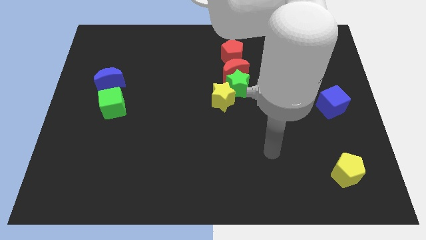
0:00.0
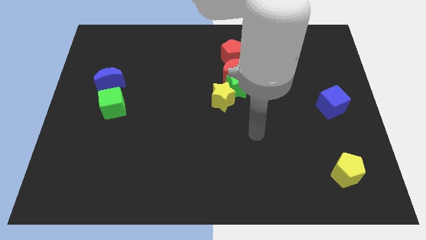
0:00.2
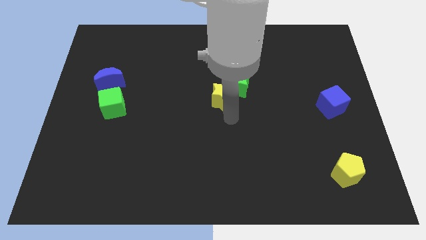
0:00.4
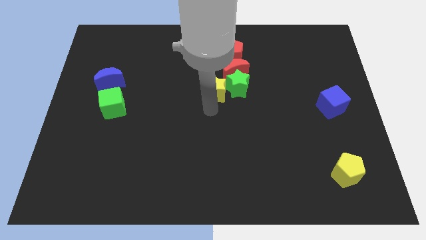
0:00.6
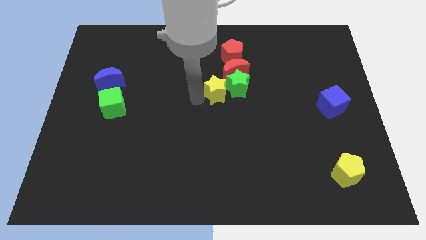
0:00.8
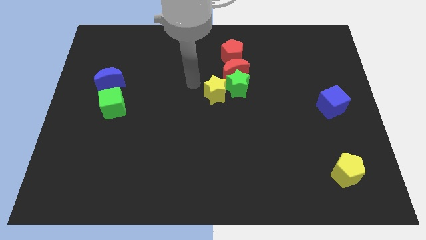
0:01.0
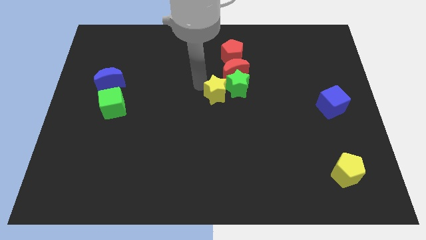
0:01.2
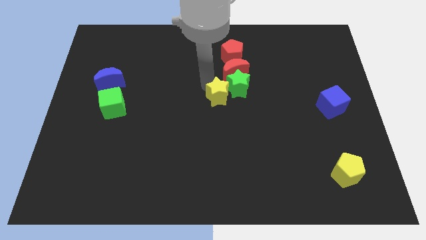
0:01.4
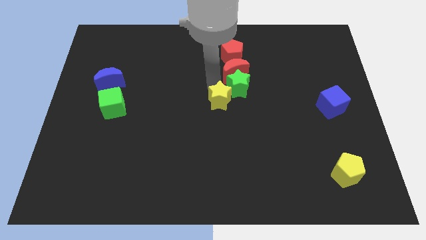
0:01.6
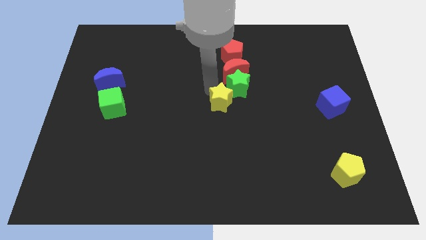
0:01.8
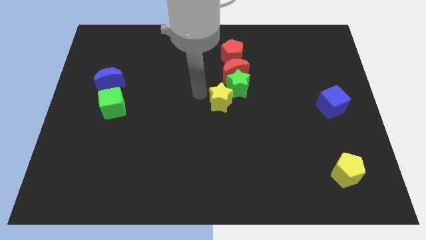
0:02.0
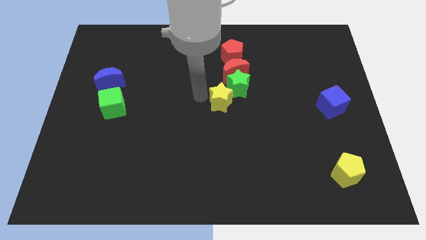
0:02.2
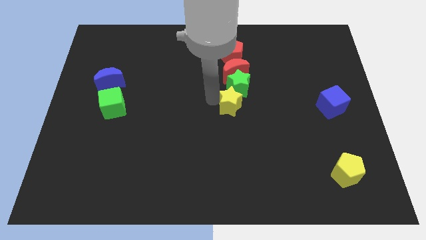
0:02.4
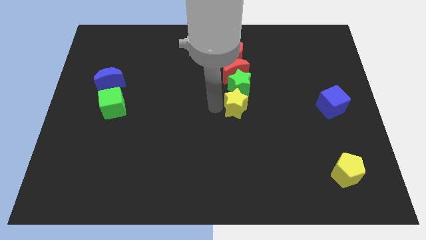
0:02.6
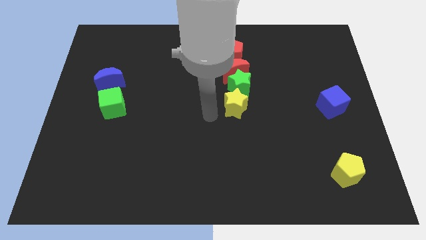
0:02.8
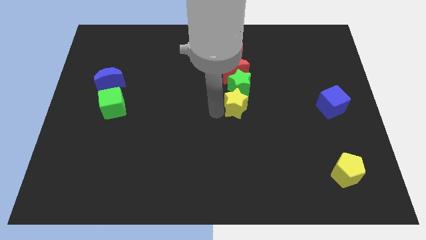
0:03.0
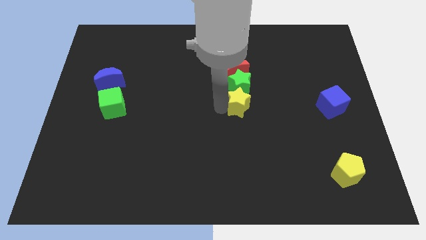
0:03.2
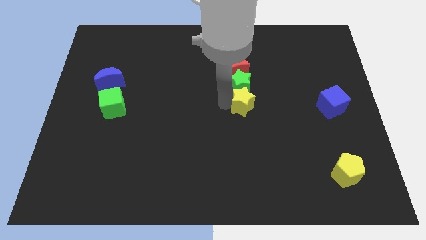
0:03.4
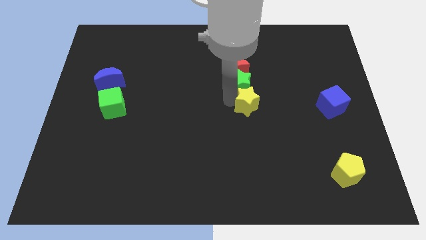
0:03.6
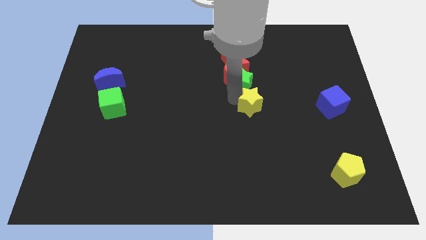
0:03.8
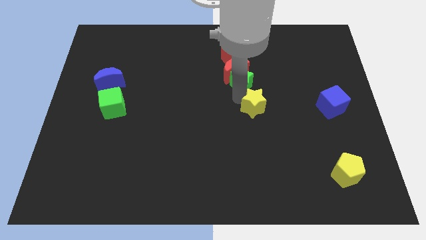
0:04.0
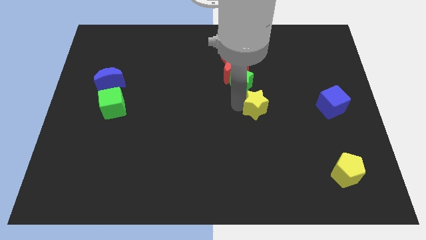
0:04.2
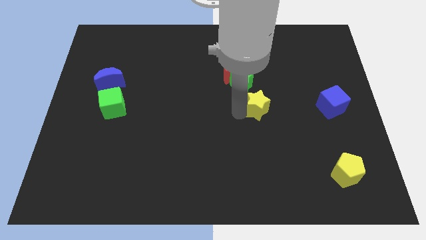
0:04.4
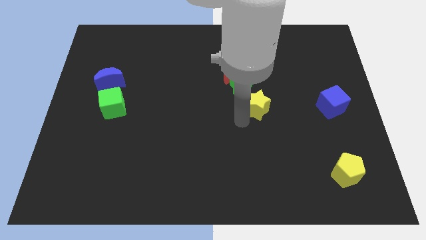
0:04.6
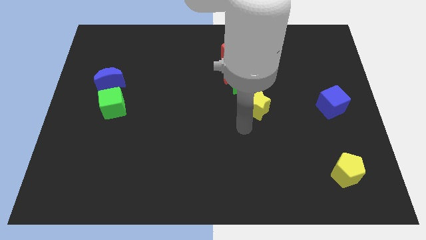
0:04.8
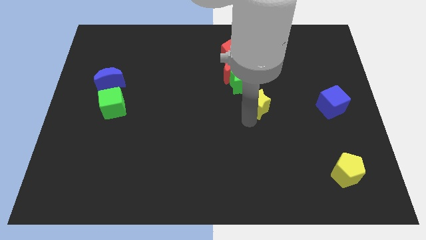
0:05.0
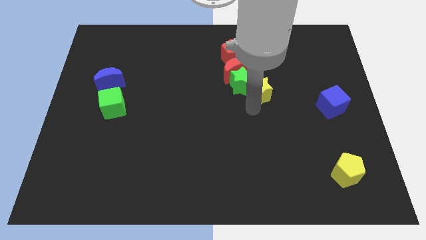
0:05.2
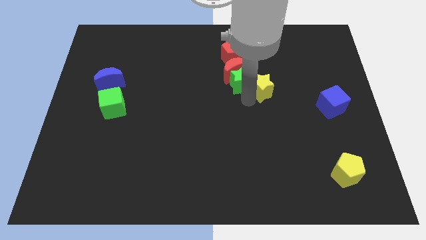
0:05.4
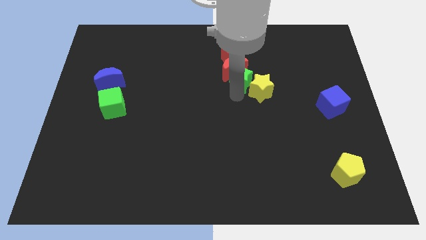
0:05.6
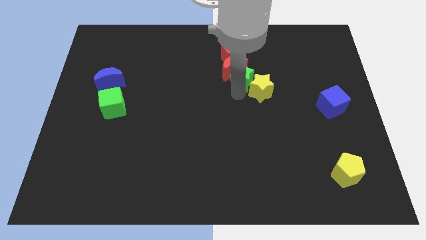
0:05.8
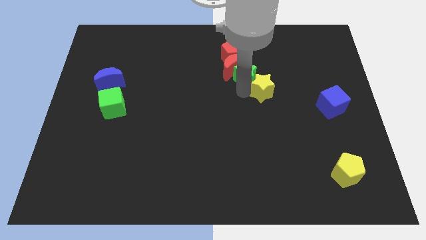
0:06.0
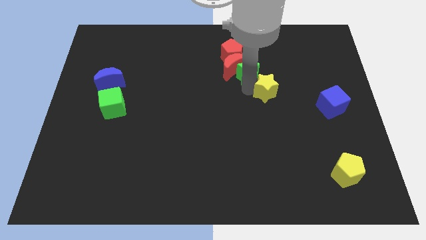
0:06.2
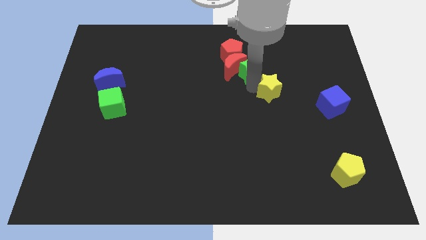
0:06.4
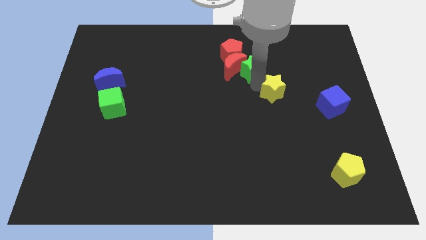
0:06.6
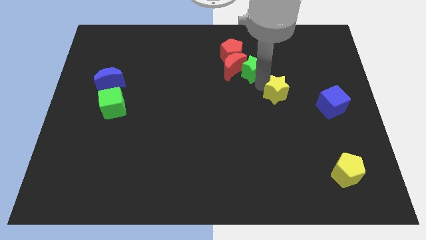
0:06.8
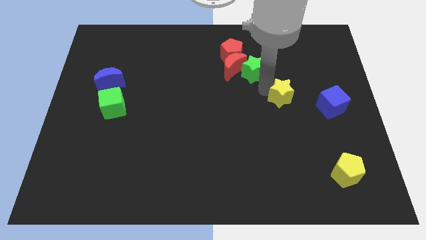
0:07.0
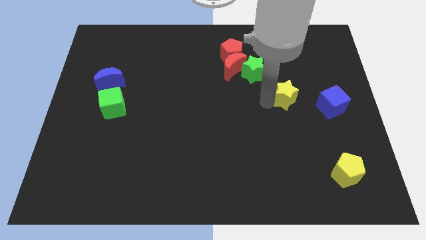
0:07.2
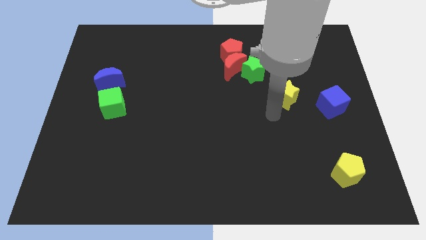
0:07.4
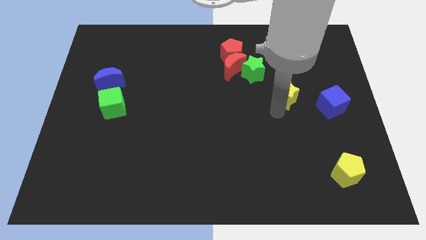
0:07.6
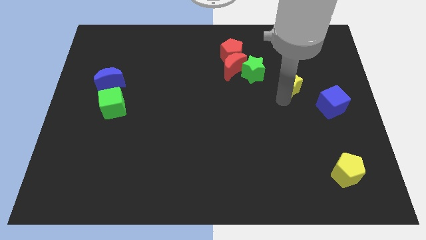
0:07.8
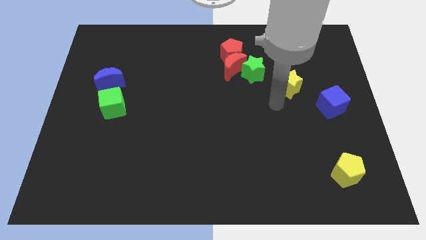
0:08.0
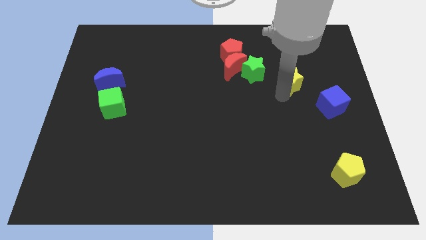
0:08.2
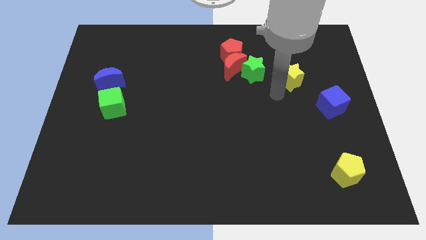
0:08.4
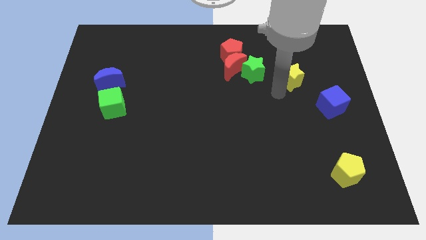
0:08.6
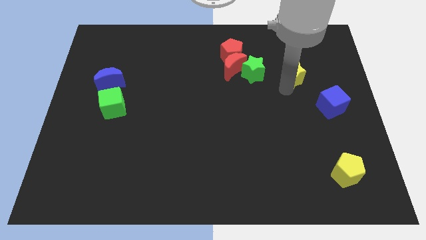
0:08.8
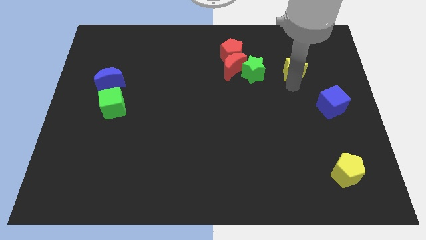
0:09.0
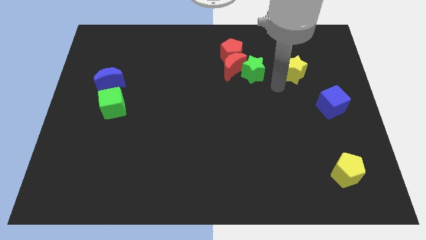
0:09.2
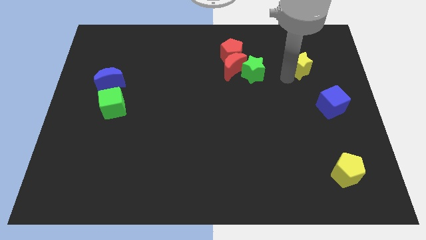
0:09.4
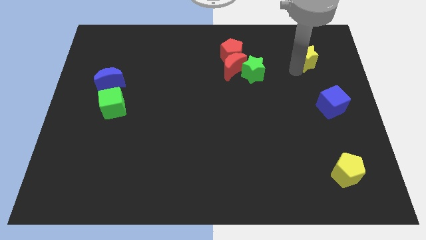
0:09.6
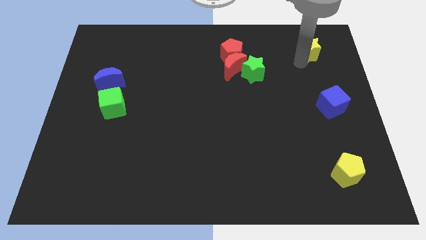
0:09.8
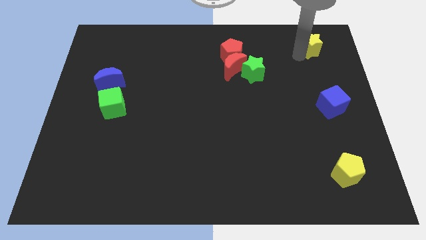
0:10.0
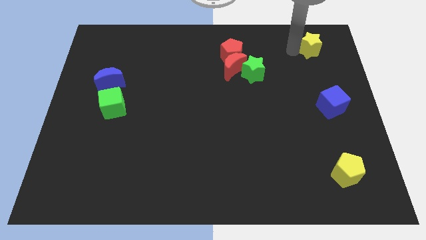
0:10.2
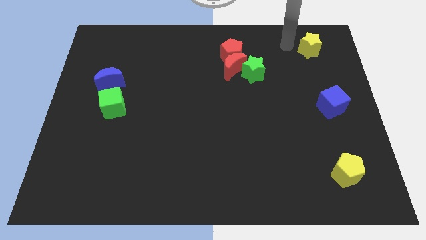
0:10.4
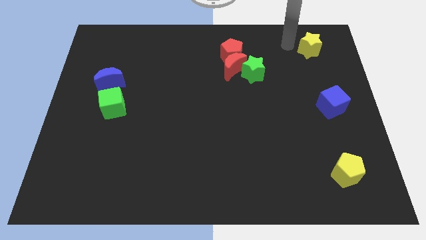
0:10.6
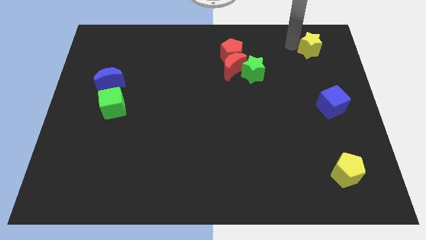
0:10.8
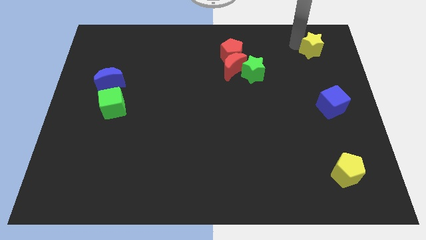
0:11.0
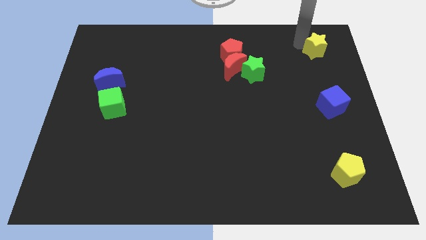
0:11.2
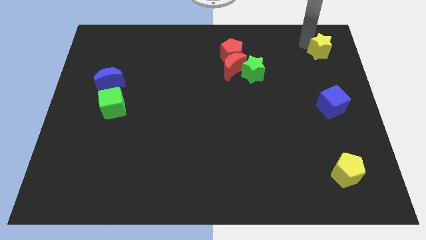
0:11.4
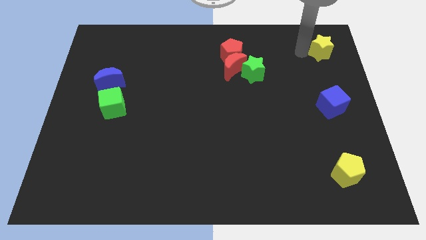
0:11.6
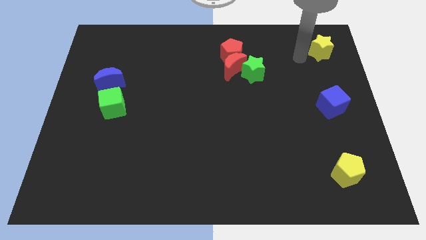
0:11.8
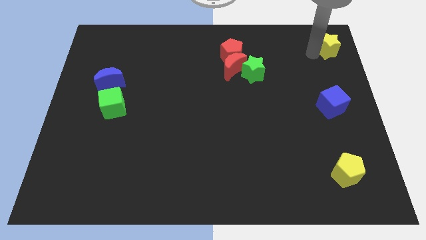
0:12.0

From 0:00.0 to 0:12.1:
move the yellow star to the top right
